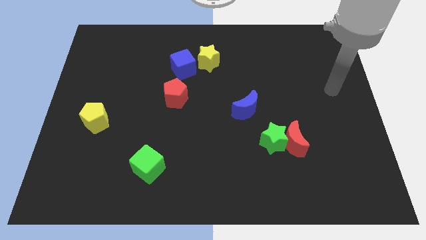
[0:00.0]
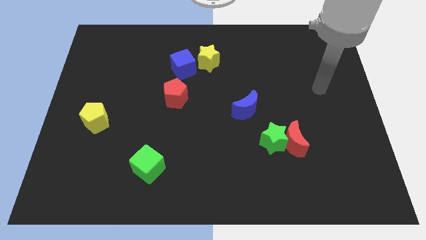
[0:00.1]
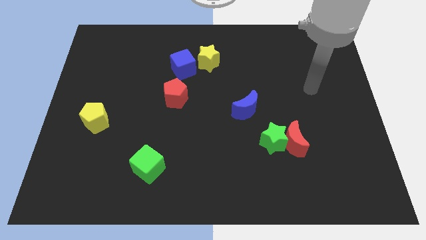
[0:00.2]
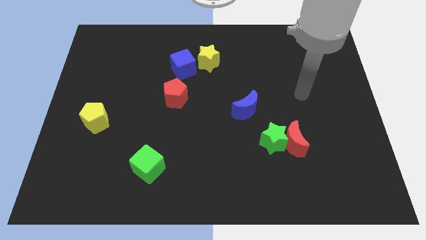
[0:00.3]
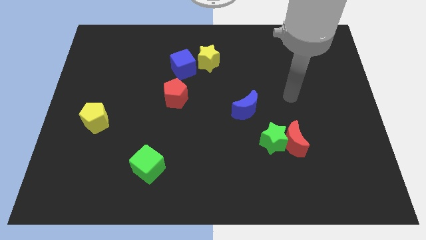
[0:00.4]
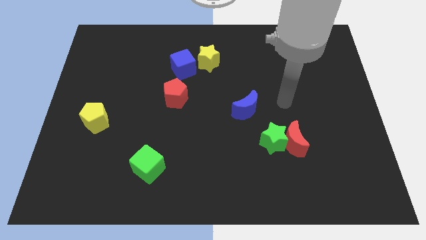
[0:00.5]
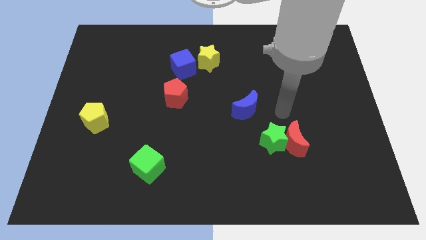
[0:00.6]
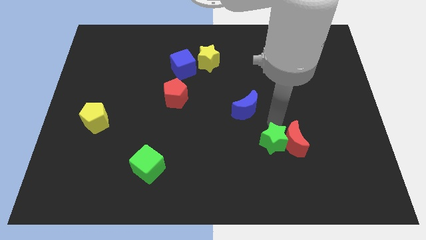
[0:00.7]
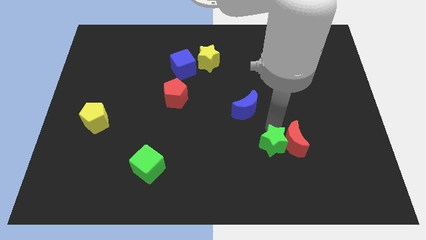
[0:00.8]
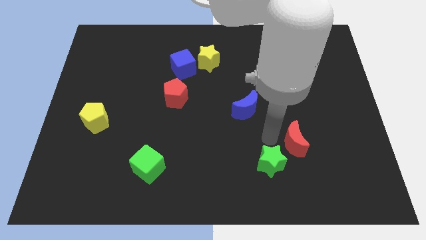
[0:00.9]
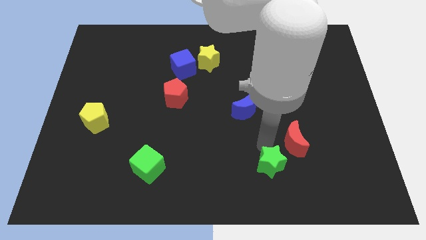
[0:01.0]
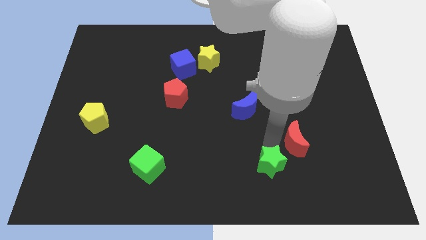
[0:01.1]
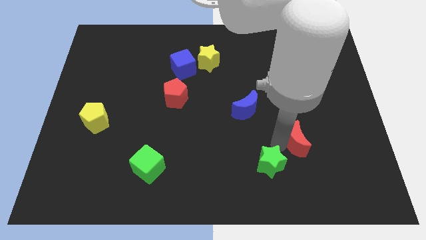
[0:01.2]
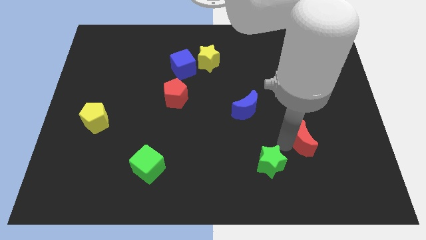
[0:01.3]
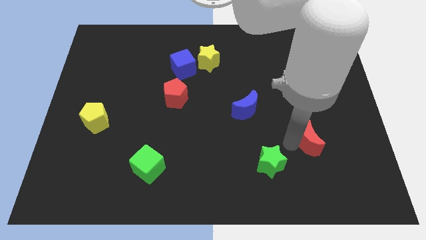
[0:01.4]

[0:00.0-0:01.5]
move the red moon away from the green star

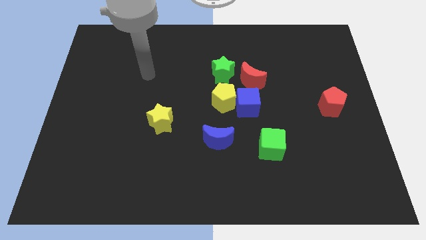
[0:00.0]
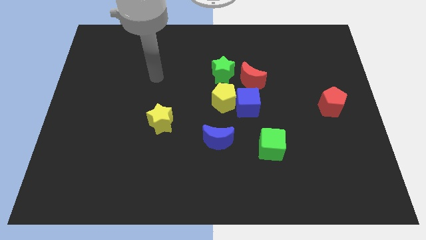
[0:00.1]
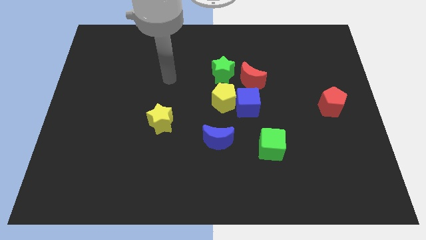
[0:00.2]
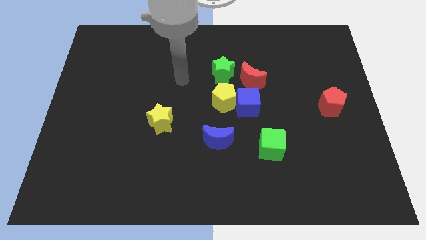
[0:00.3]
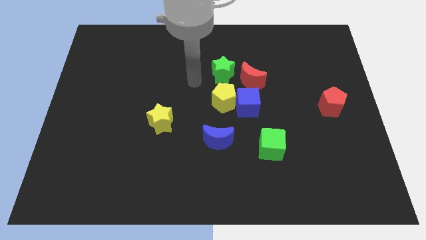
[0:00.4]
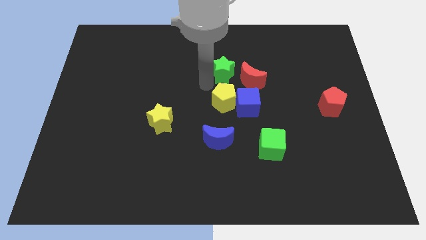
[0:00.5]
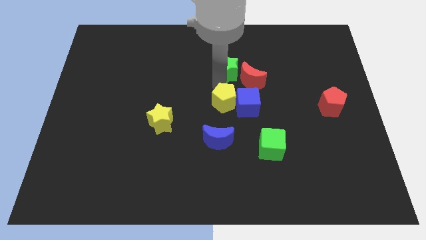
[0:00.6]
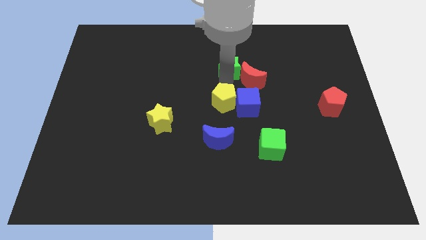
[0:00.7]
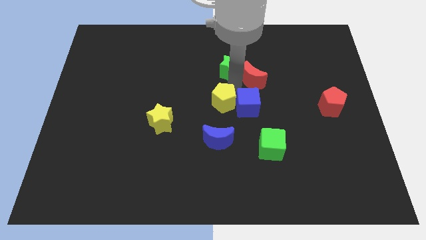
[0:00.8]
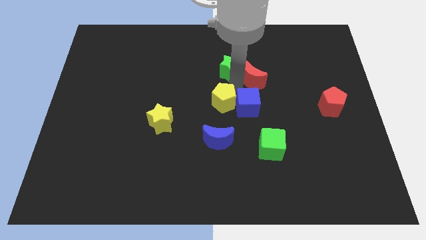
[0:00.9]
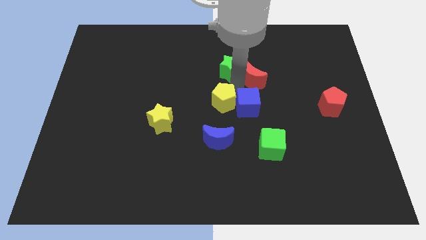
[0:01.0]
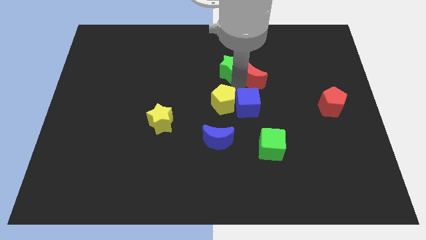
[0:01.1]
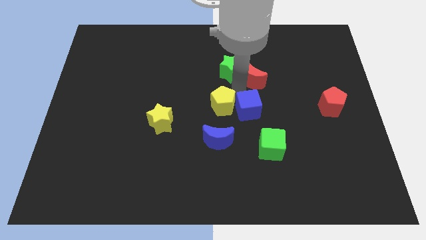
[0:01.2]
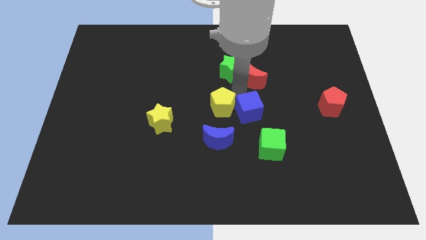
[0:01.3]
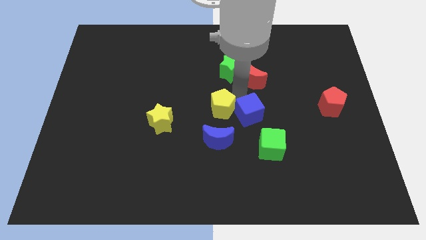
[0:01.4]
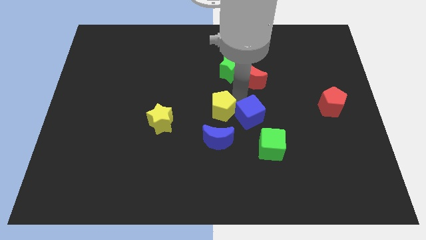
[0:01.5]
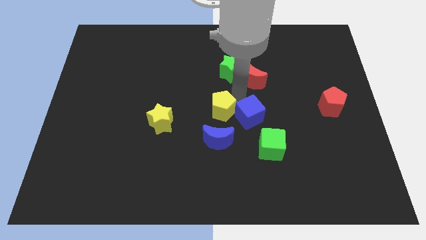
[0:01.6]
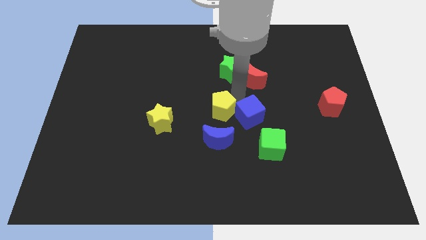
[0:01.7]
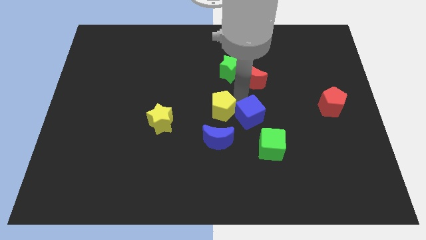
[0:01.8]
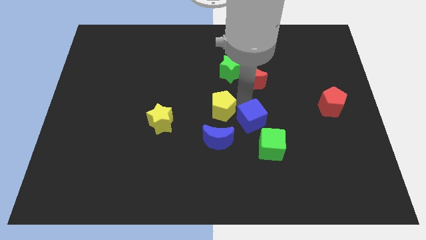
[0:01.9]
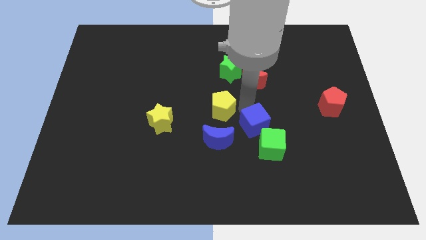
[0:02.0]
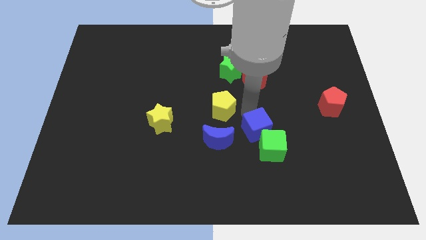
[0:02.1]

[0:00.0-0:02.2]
move the blue cube away from the yellow pentagon and red moon

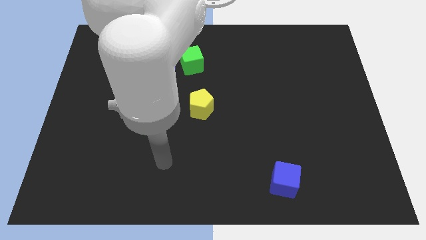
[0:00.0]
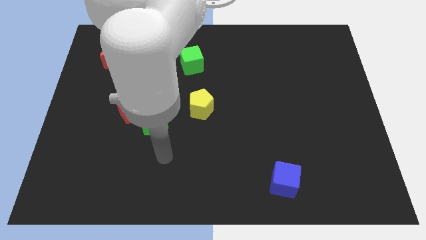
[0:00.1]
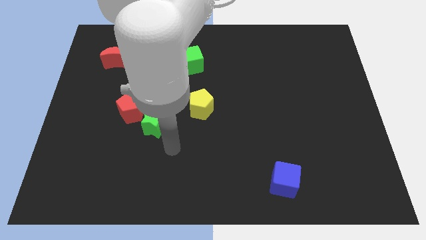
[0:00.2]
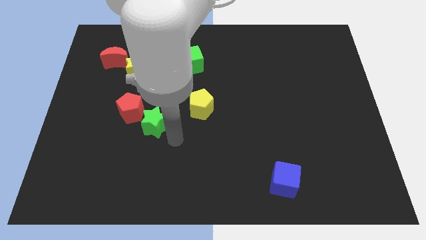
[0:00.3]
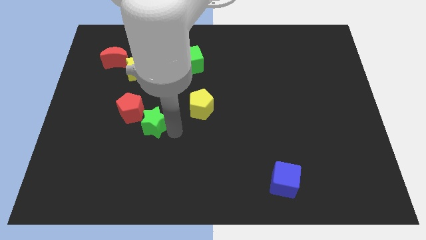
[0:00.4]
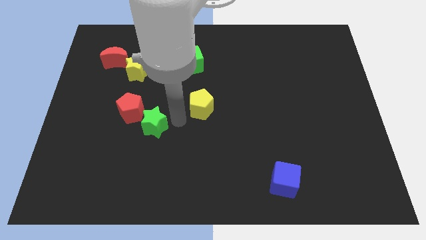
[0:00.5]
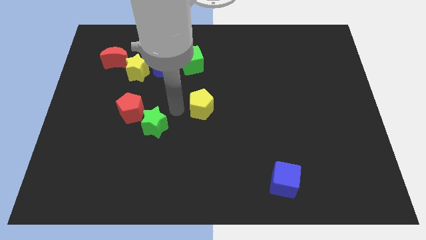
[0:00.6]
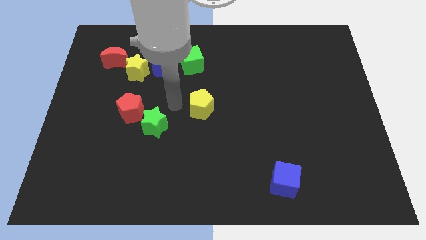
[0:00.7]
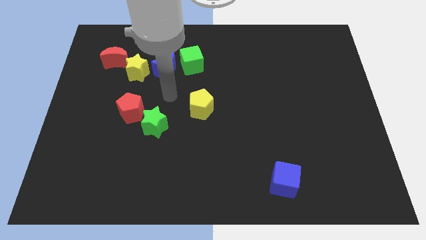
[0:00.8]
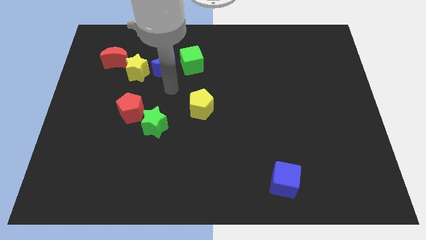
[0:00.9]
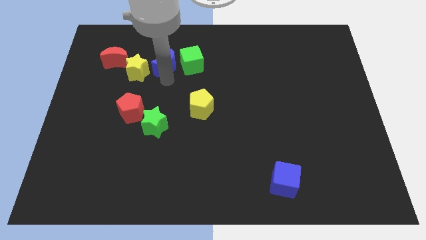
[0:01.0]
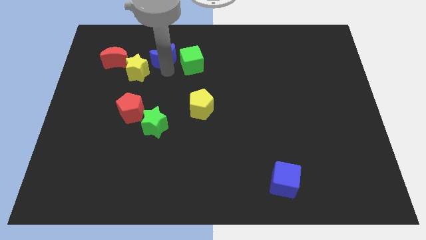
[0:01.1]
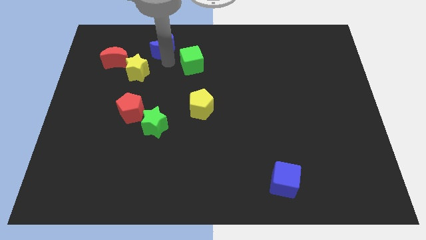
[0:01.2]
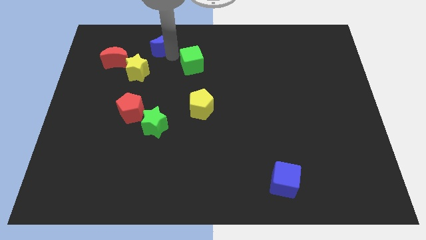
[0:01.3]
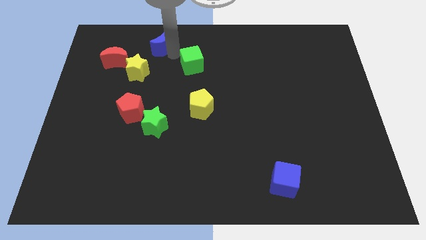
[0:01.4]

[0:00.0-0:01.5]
move the green cube away from the blue moon

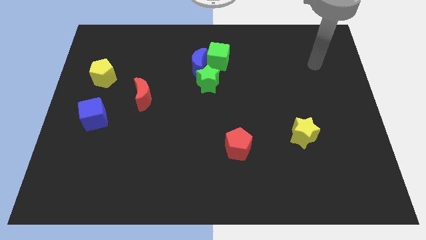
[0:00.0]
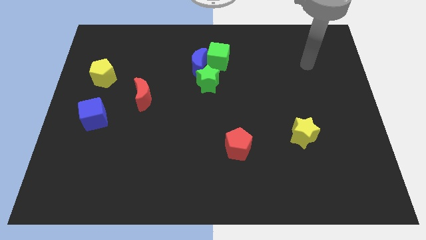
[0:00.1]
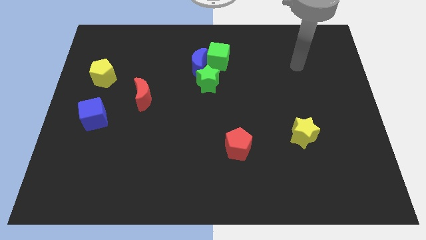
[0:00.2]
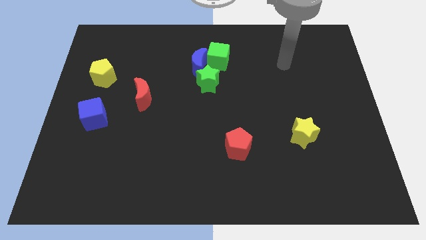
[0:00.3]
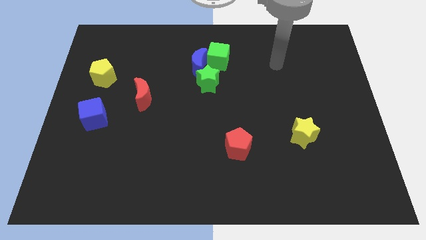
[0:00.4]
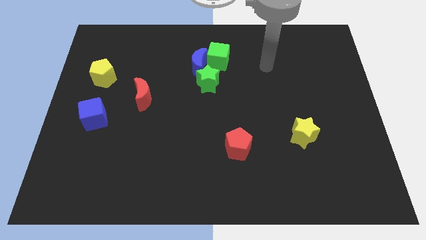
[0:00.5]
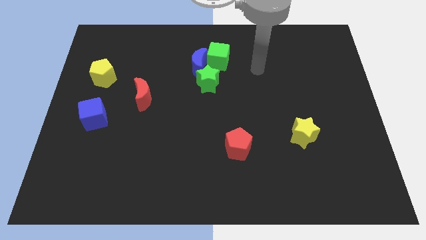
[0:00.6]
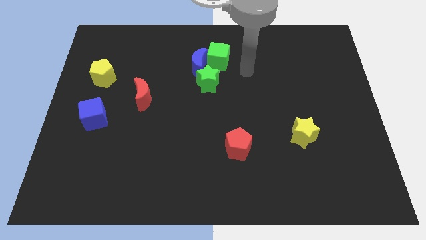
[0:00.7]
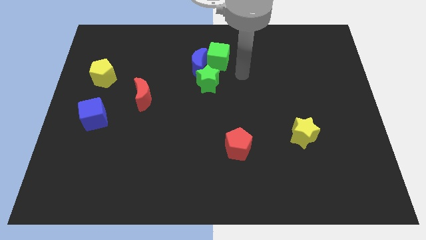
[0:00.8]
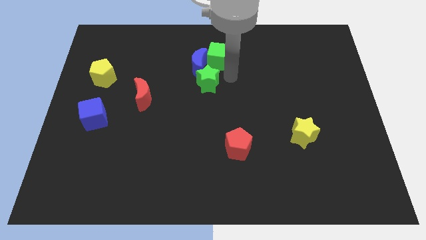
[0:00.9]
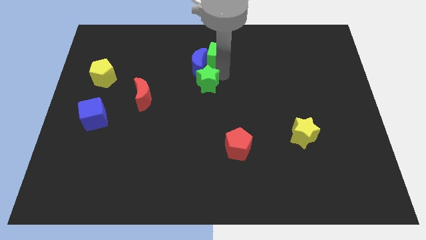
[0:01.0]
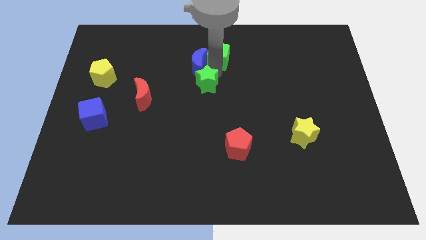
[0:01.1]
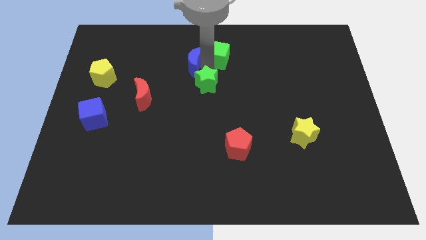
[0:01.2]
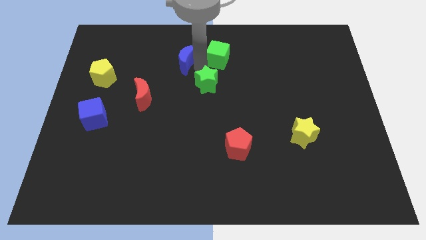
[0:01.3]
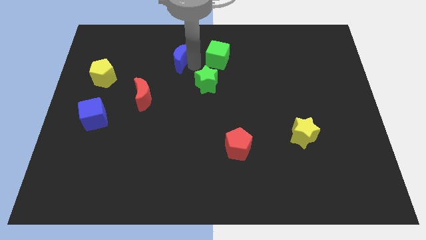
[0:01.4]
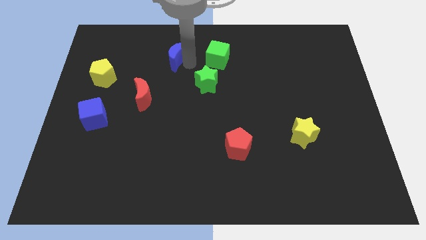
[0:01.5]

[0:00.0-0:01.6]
separate the blue moon from the green cube and green star

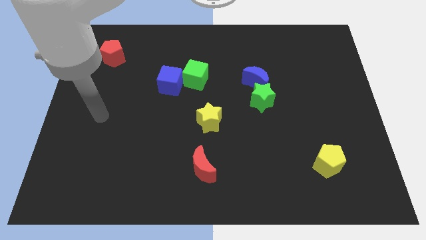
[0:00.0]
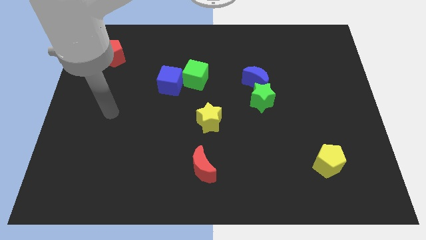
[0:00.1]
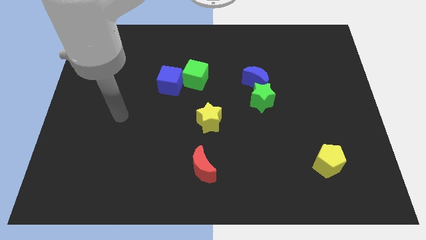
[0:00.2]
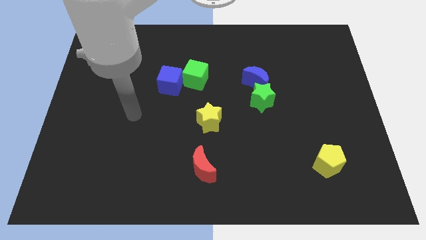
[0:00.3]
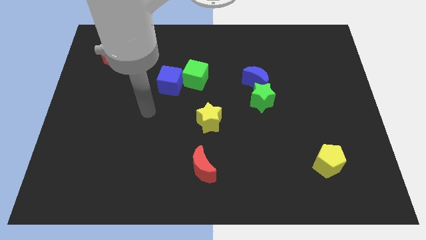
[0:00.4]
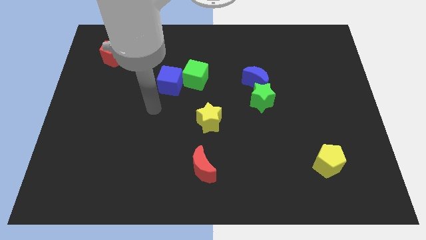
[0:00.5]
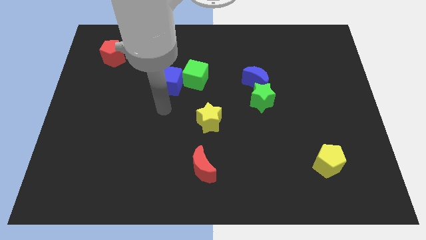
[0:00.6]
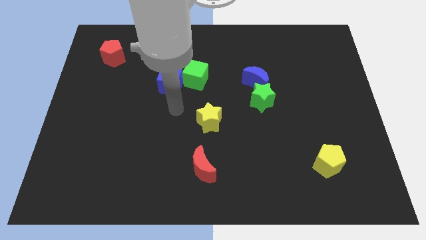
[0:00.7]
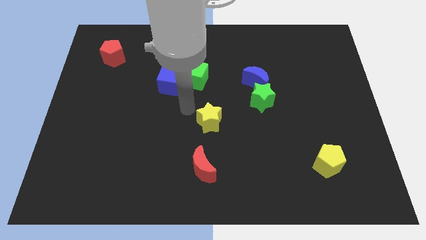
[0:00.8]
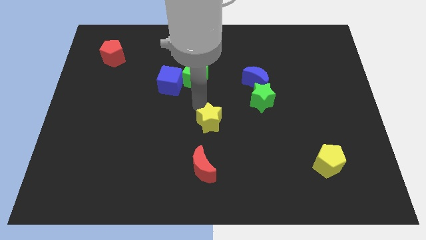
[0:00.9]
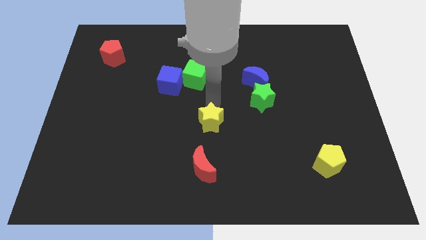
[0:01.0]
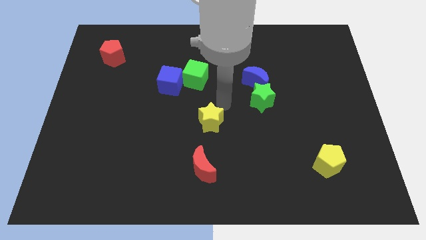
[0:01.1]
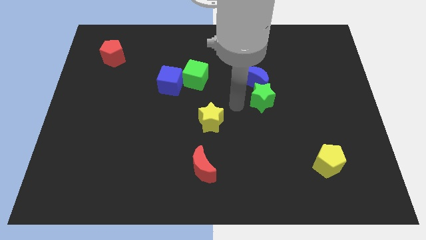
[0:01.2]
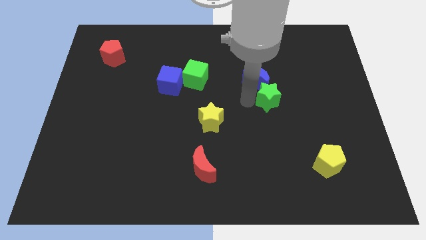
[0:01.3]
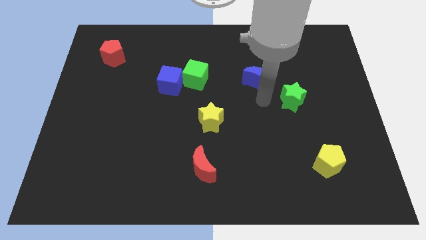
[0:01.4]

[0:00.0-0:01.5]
separate the blue moon from the green star

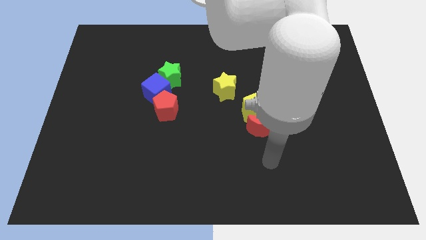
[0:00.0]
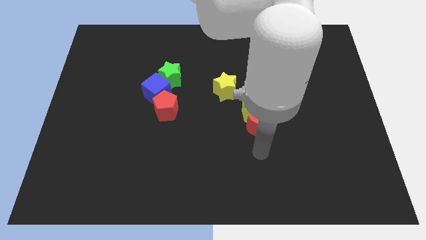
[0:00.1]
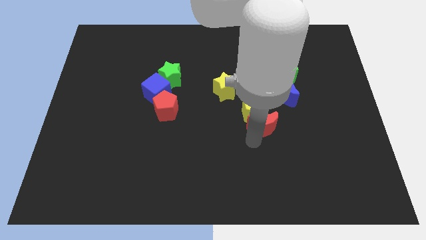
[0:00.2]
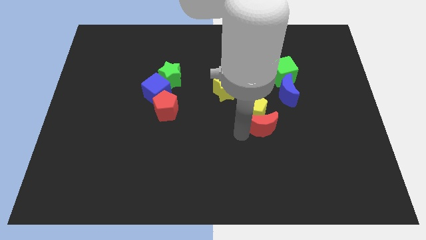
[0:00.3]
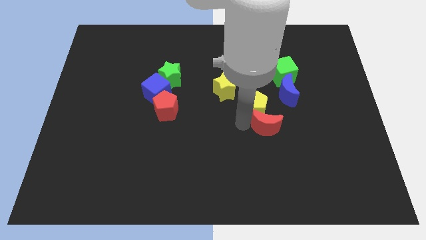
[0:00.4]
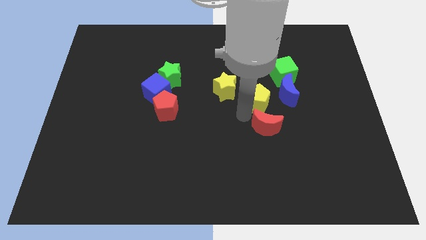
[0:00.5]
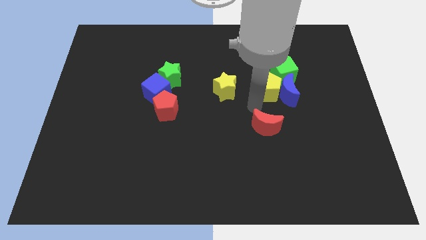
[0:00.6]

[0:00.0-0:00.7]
pull the red moon apart from the yellow pentagon

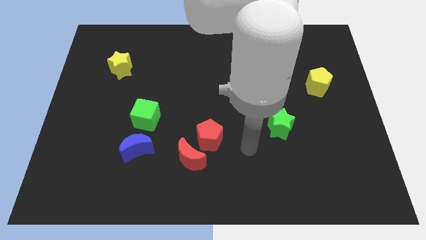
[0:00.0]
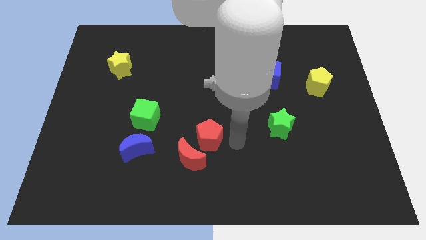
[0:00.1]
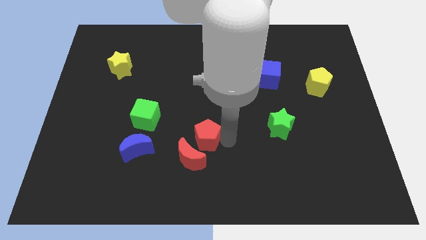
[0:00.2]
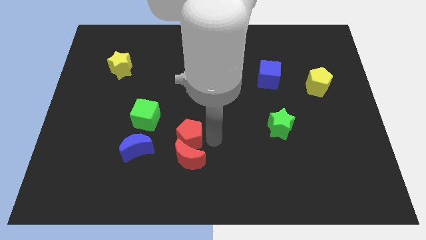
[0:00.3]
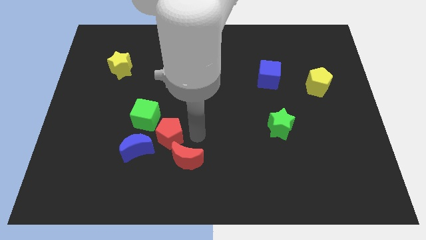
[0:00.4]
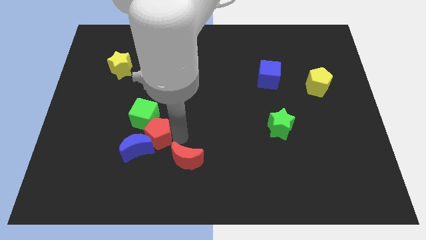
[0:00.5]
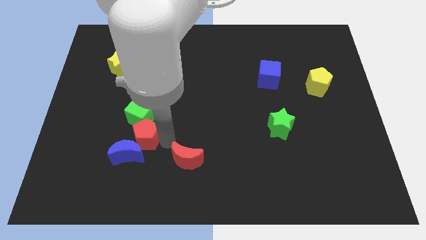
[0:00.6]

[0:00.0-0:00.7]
pull the red moon apart from the red pentagon
